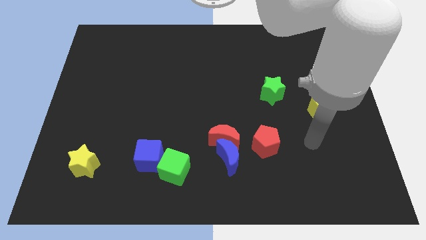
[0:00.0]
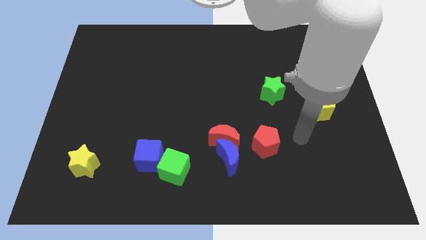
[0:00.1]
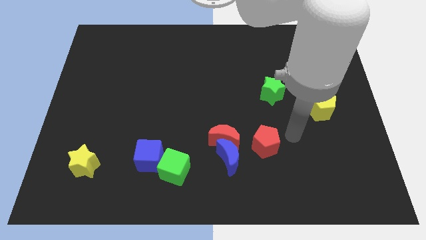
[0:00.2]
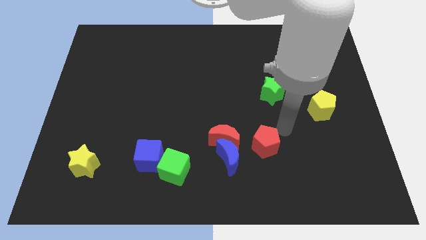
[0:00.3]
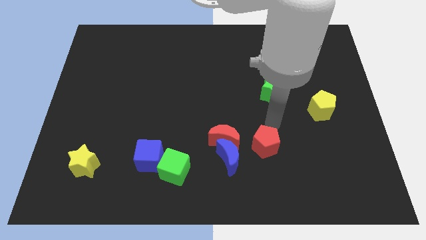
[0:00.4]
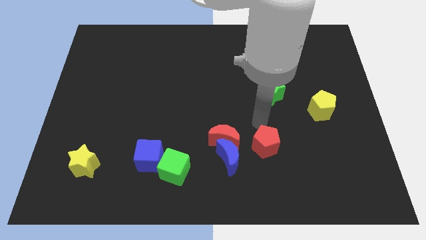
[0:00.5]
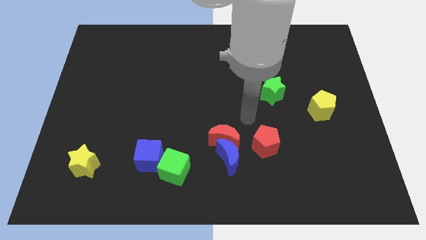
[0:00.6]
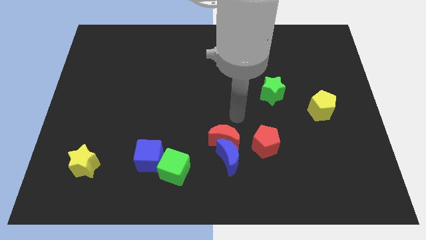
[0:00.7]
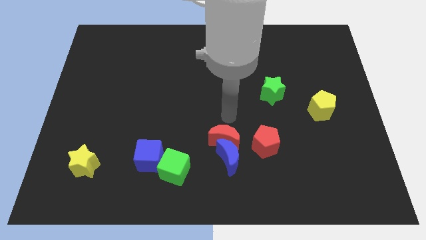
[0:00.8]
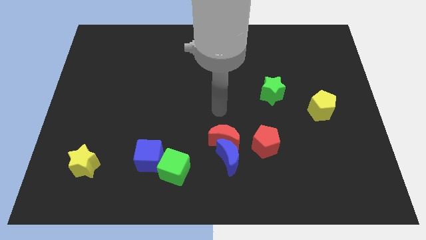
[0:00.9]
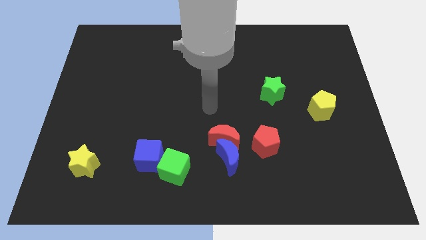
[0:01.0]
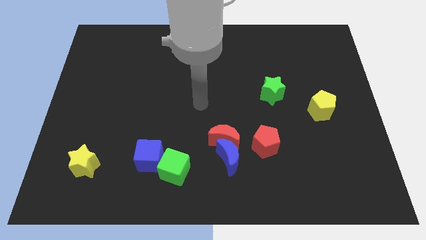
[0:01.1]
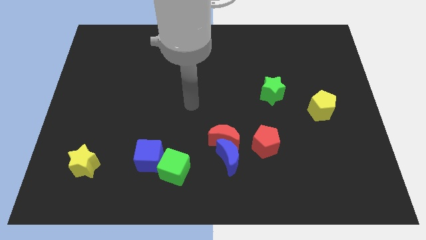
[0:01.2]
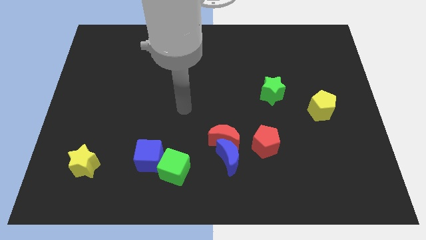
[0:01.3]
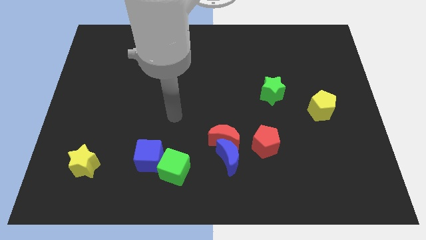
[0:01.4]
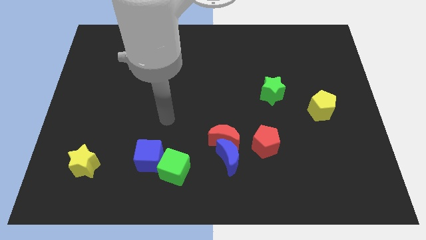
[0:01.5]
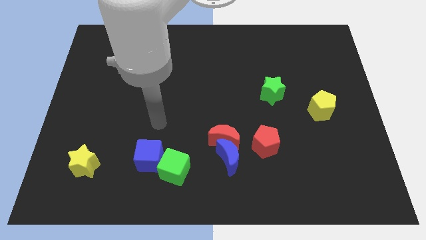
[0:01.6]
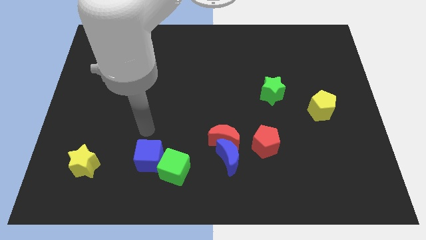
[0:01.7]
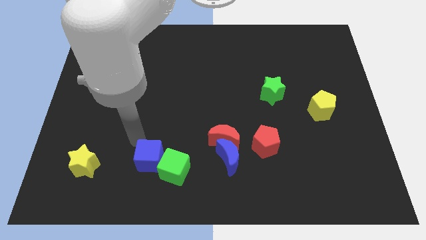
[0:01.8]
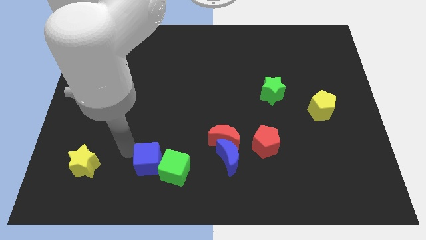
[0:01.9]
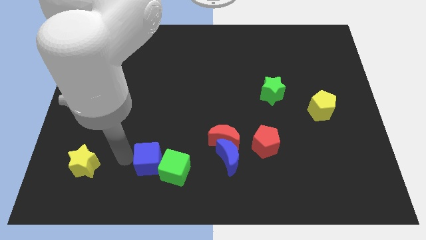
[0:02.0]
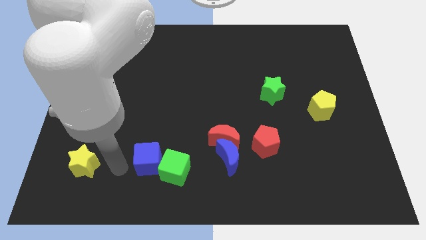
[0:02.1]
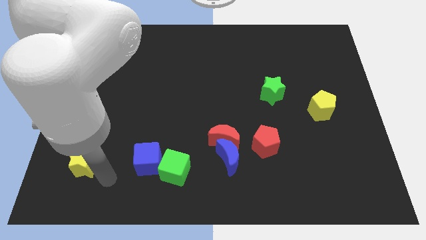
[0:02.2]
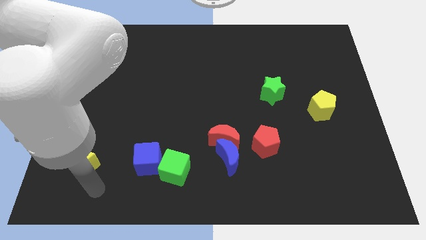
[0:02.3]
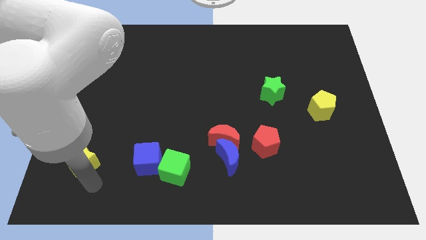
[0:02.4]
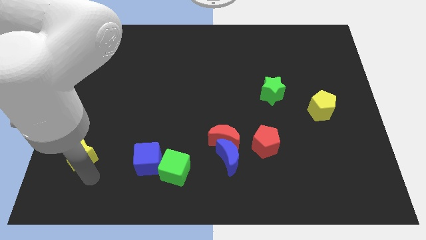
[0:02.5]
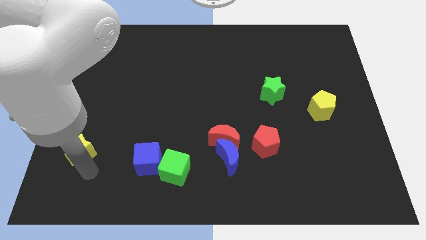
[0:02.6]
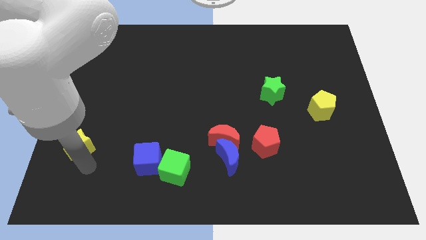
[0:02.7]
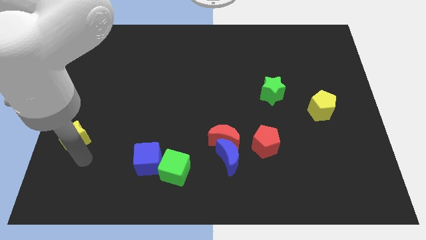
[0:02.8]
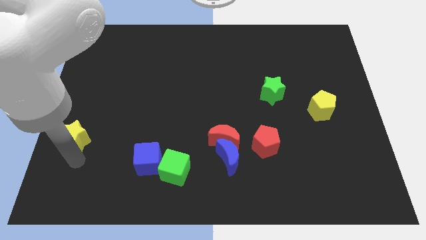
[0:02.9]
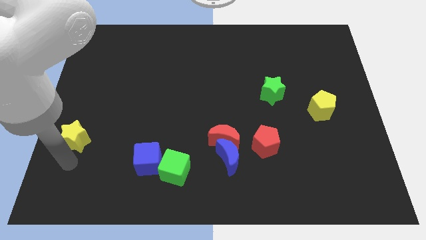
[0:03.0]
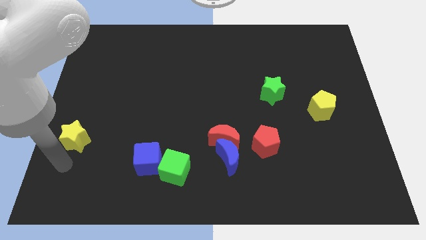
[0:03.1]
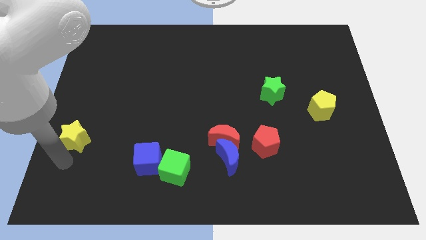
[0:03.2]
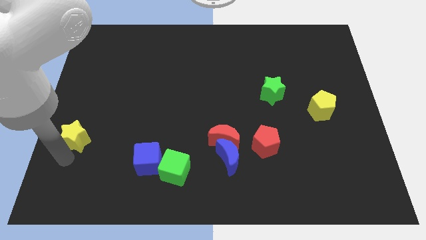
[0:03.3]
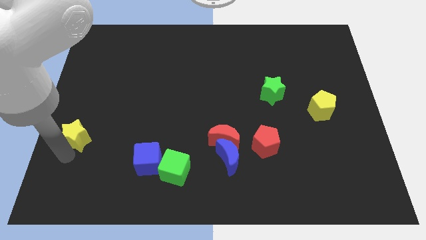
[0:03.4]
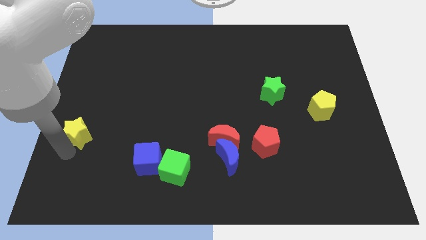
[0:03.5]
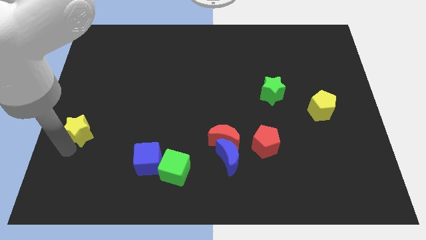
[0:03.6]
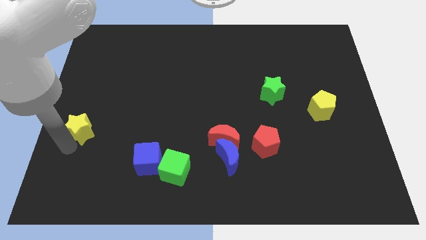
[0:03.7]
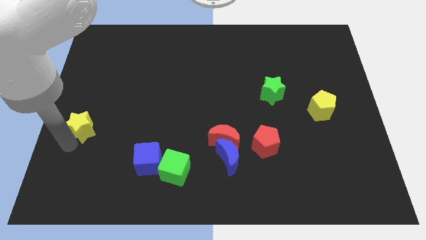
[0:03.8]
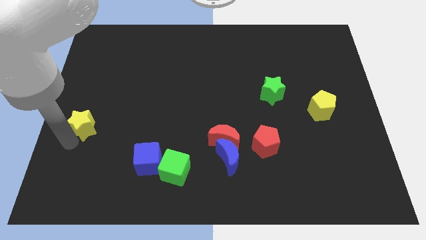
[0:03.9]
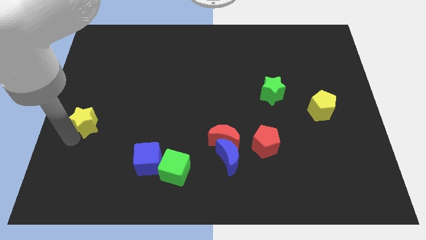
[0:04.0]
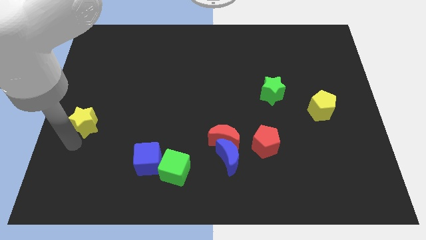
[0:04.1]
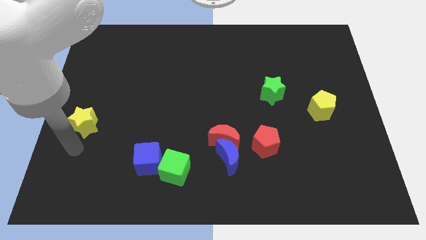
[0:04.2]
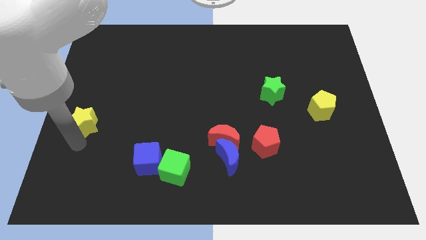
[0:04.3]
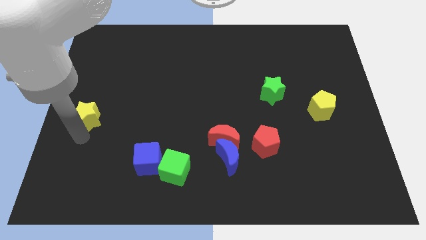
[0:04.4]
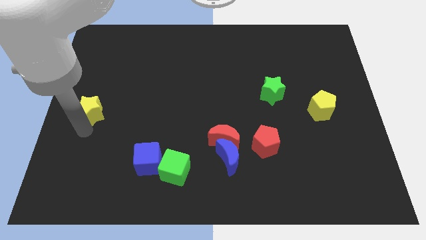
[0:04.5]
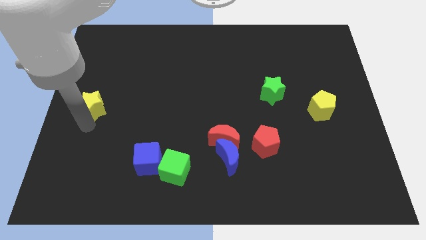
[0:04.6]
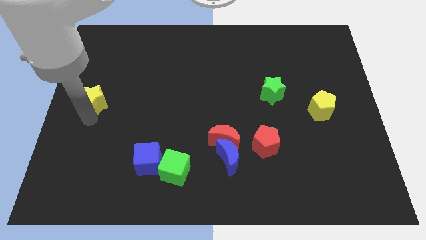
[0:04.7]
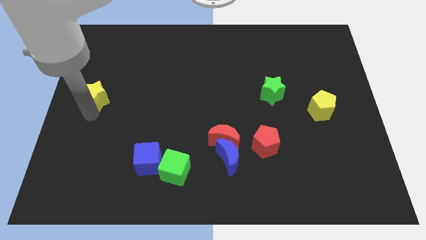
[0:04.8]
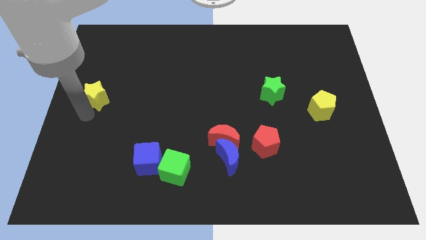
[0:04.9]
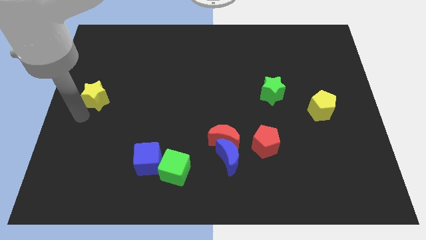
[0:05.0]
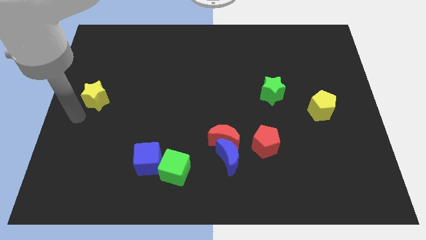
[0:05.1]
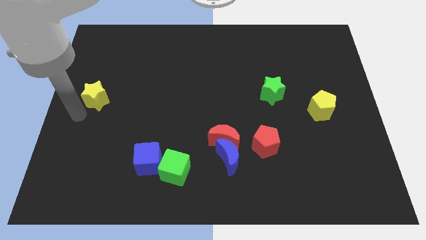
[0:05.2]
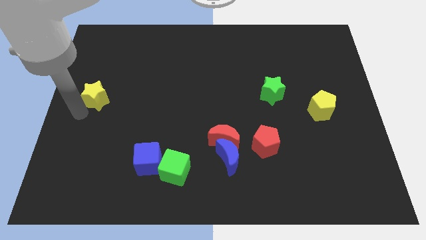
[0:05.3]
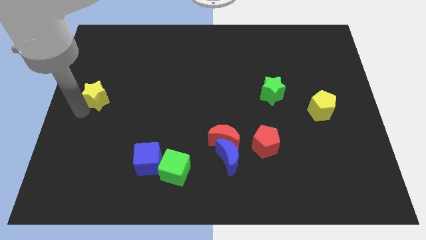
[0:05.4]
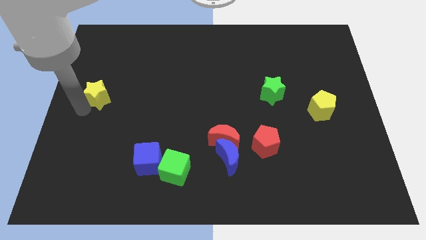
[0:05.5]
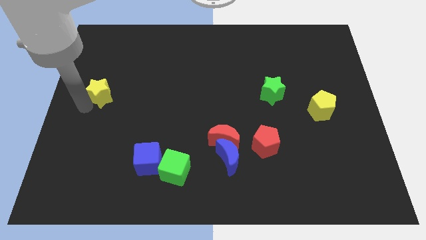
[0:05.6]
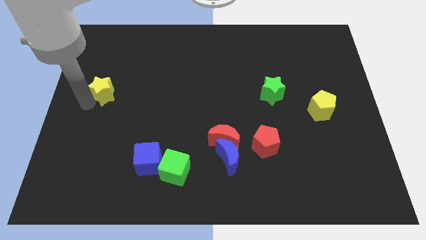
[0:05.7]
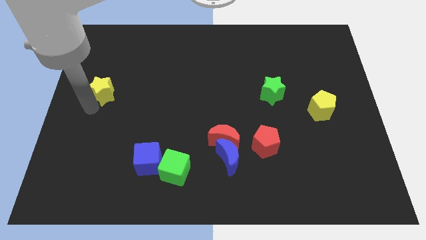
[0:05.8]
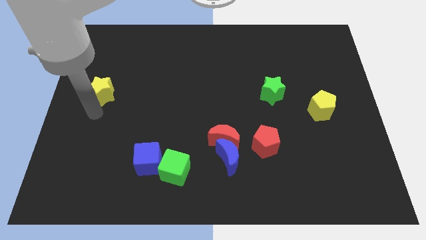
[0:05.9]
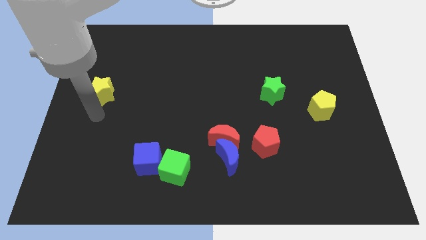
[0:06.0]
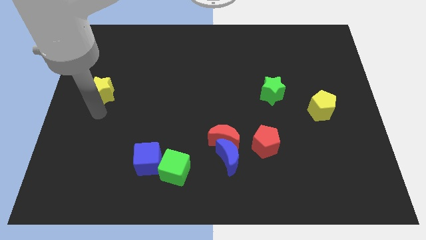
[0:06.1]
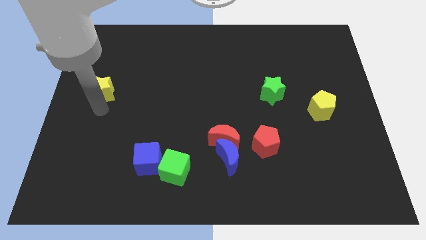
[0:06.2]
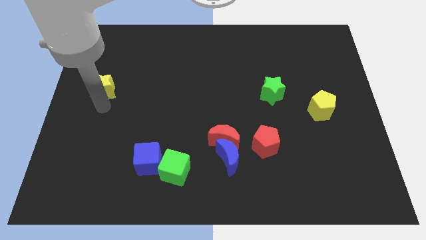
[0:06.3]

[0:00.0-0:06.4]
move the yellow star up

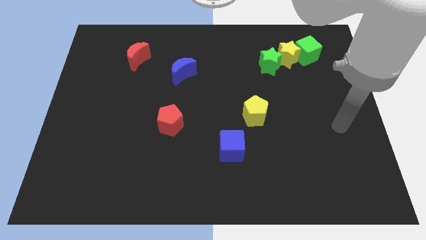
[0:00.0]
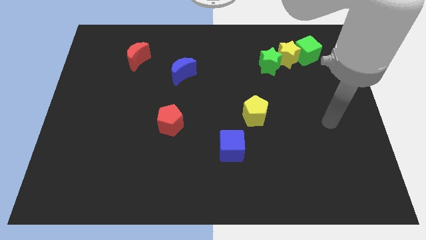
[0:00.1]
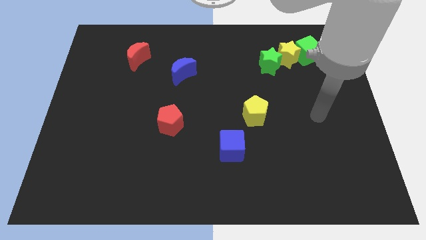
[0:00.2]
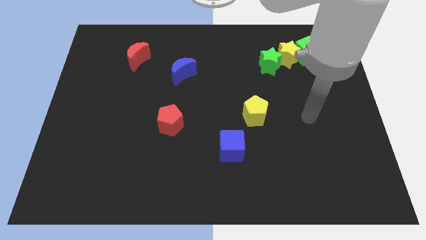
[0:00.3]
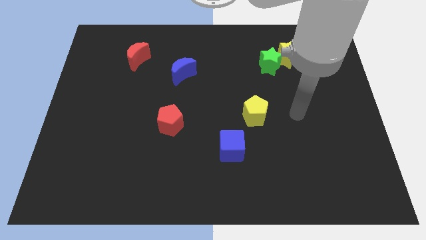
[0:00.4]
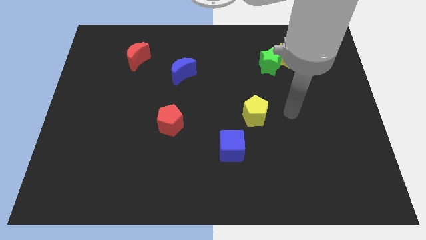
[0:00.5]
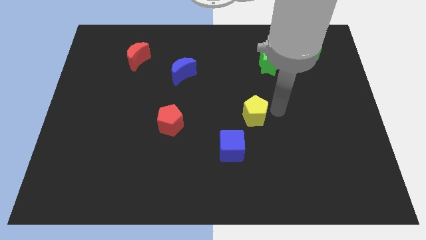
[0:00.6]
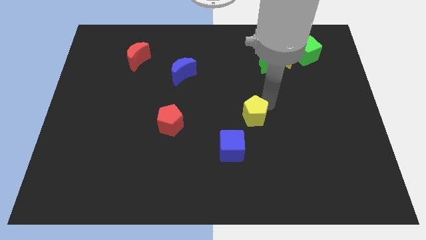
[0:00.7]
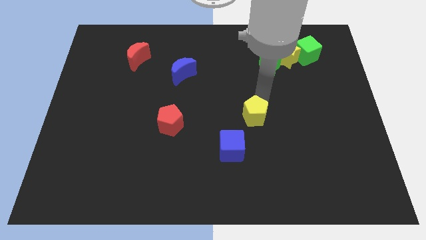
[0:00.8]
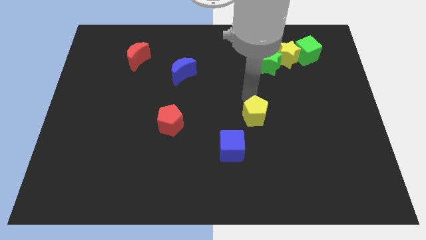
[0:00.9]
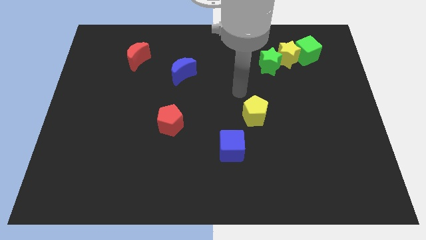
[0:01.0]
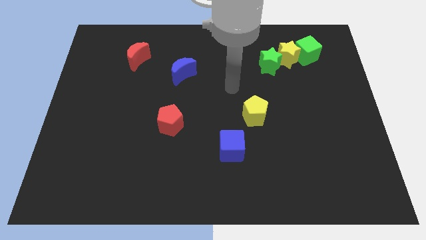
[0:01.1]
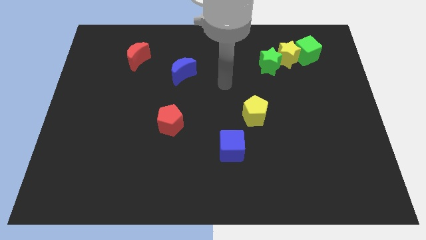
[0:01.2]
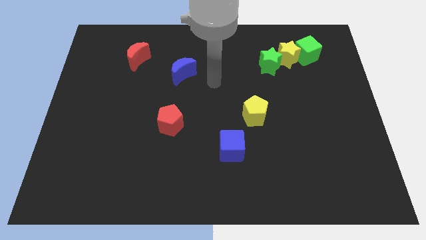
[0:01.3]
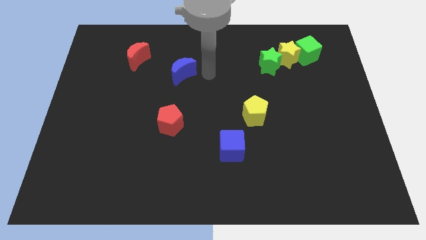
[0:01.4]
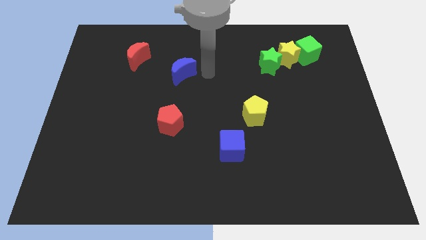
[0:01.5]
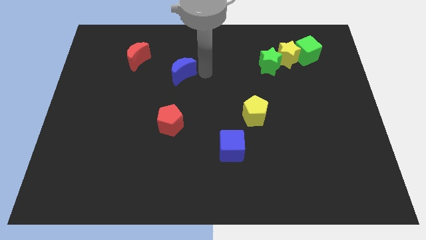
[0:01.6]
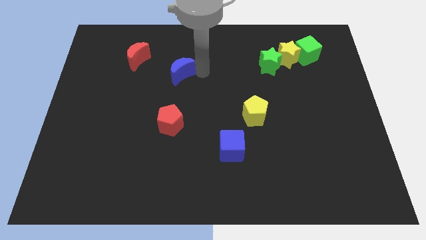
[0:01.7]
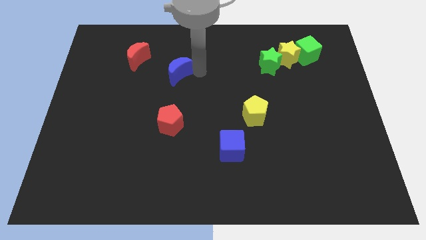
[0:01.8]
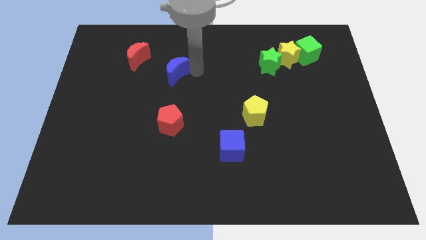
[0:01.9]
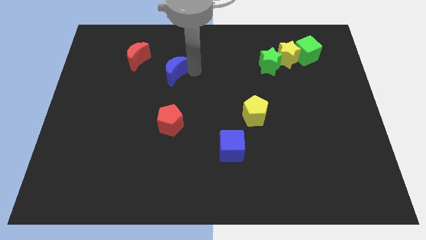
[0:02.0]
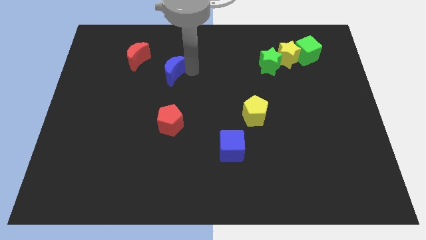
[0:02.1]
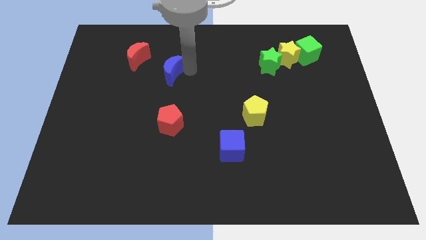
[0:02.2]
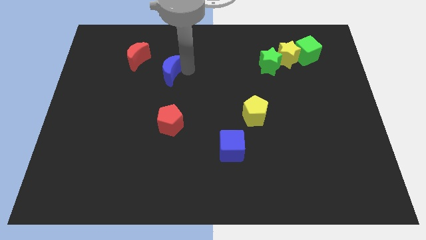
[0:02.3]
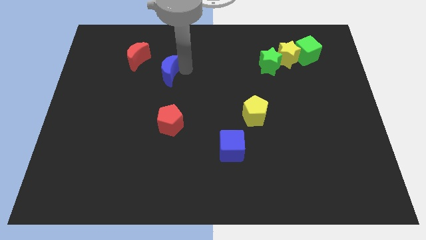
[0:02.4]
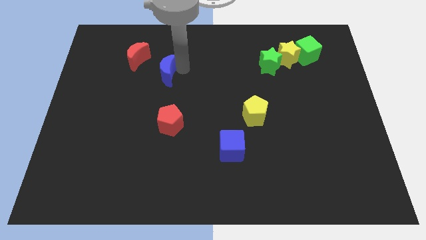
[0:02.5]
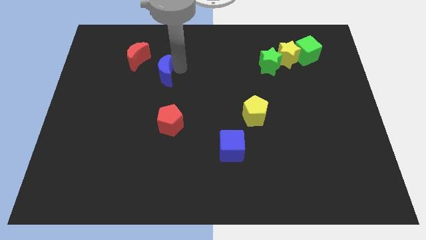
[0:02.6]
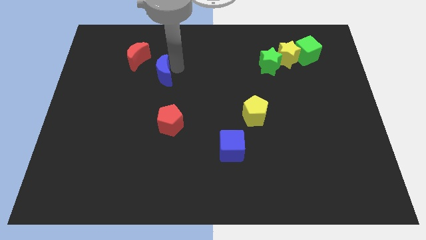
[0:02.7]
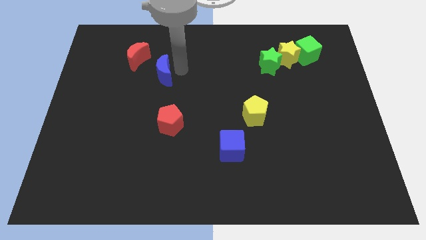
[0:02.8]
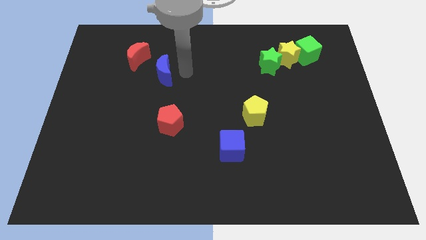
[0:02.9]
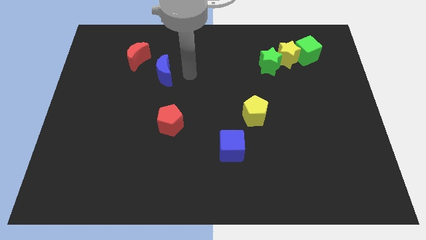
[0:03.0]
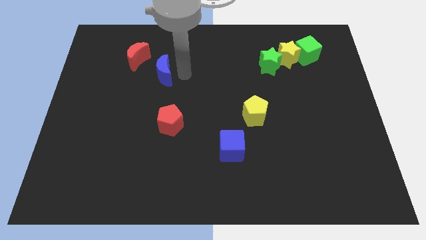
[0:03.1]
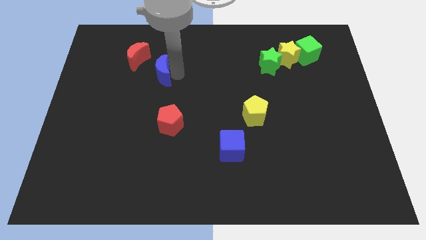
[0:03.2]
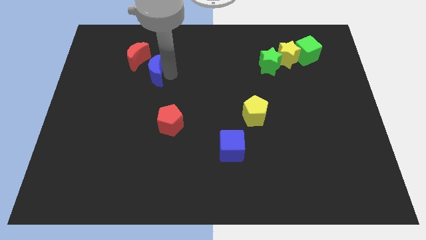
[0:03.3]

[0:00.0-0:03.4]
push the blue moon to the left somewhat
